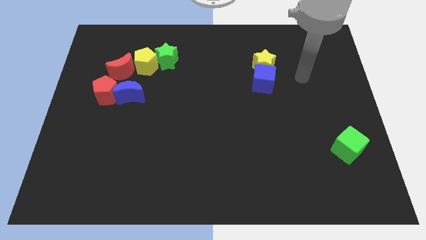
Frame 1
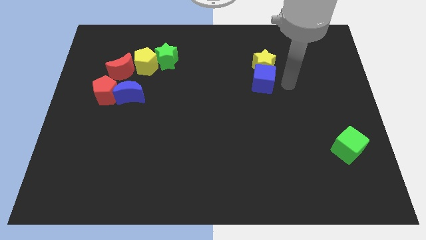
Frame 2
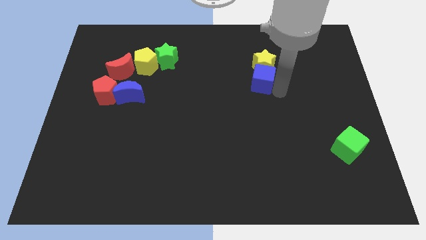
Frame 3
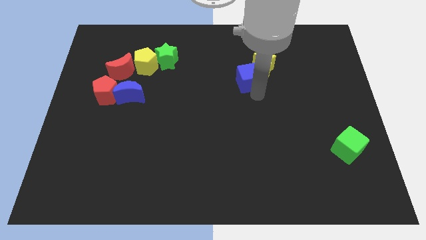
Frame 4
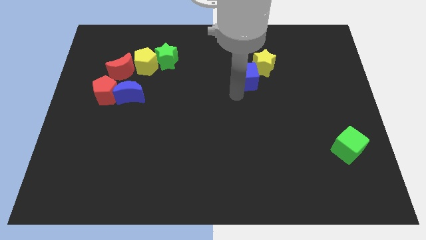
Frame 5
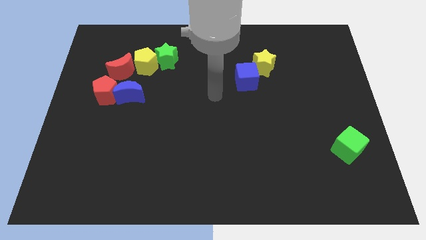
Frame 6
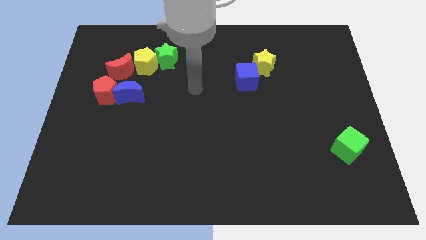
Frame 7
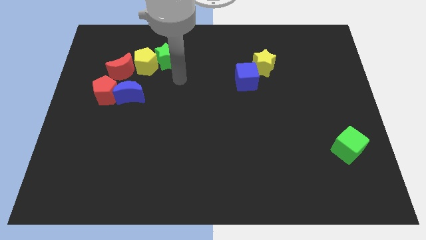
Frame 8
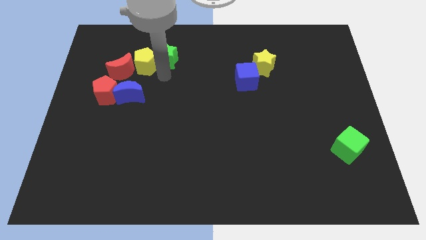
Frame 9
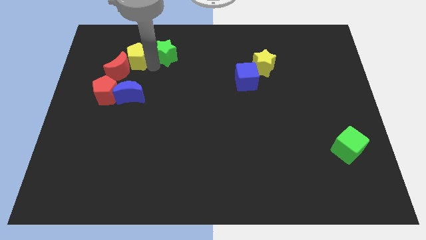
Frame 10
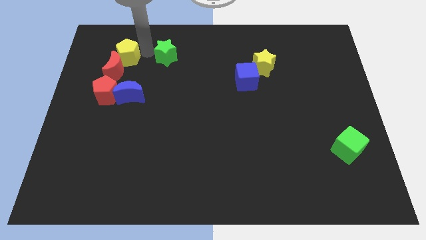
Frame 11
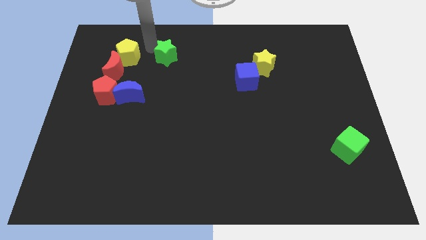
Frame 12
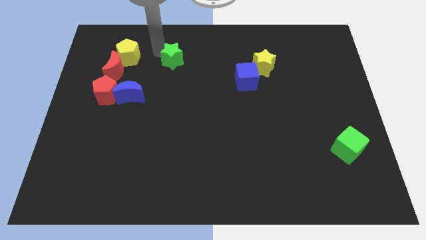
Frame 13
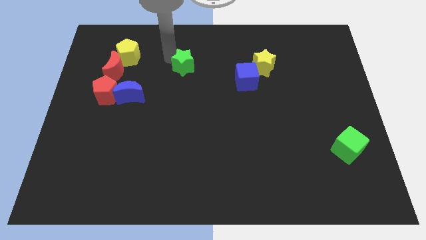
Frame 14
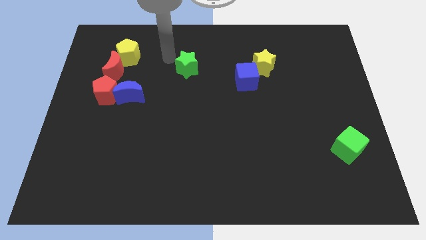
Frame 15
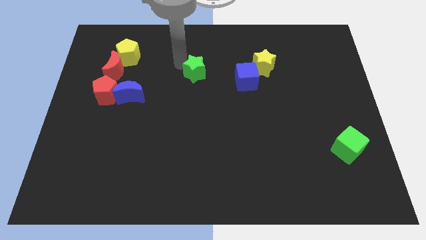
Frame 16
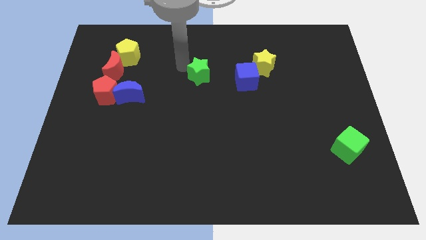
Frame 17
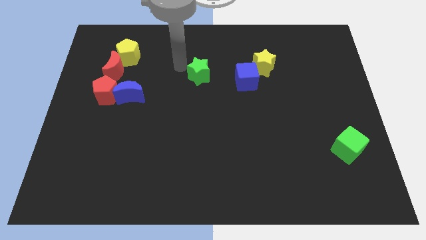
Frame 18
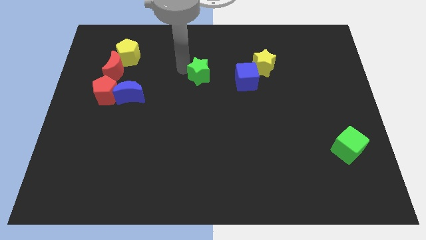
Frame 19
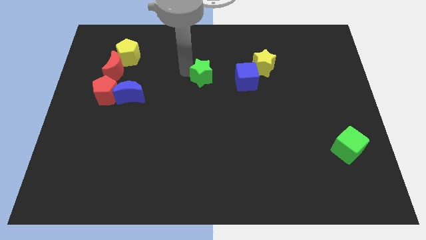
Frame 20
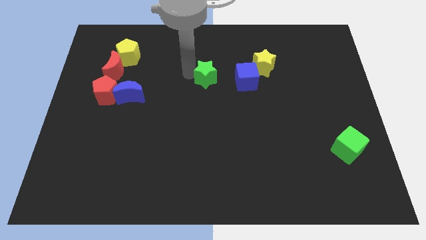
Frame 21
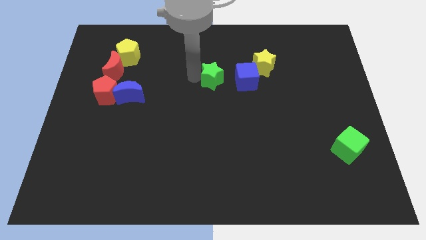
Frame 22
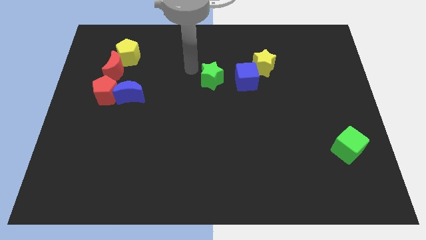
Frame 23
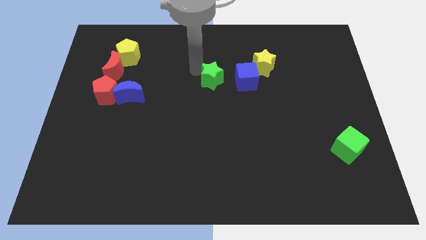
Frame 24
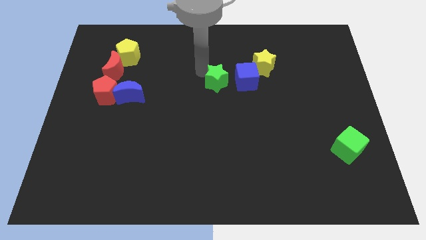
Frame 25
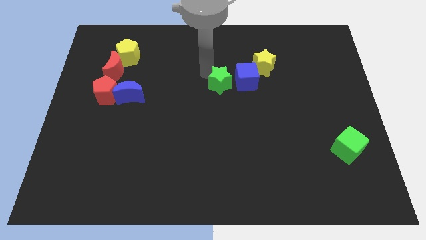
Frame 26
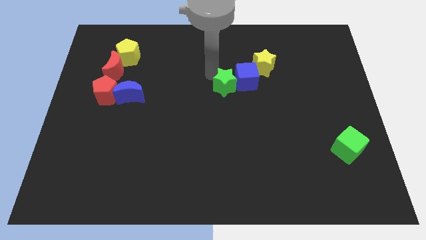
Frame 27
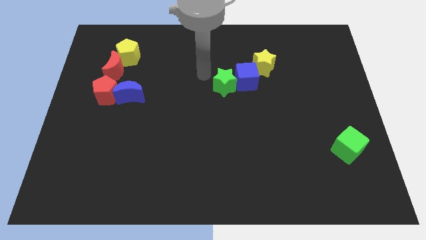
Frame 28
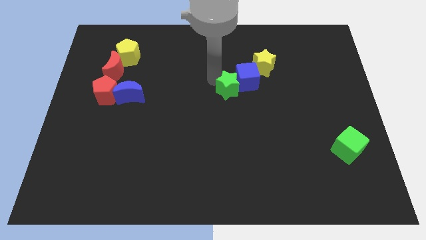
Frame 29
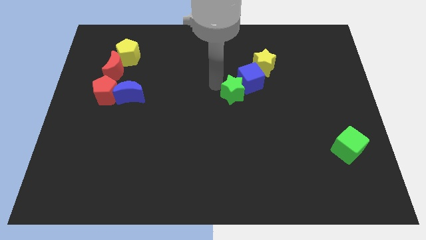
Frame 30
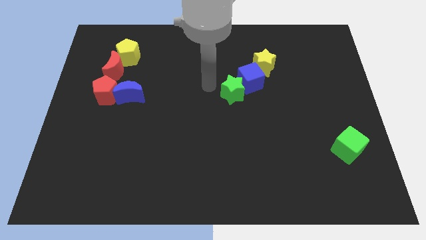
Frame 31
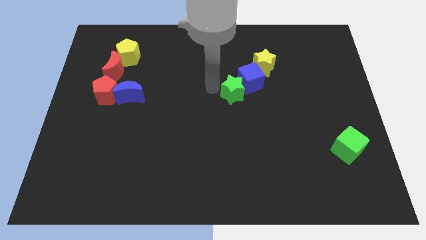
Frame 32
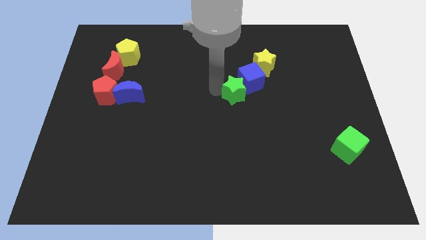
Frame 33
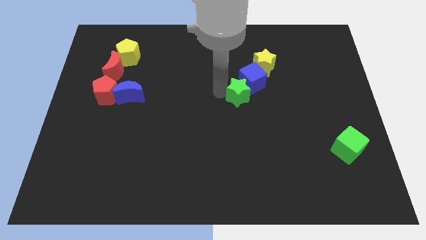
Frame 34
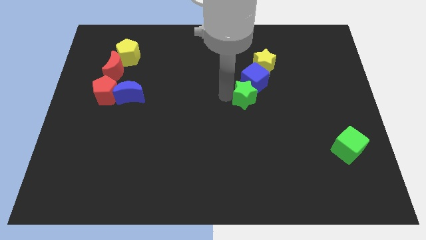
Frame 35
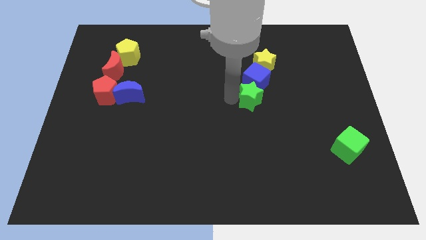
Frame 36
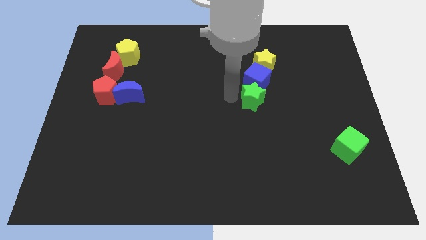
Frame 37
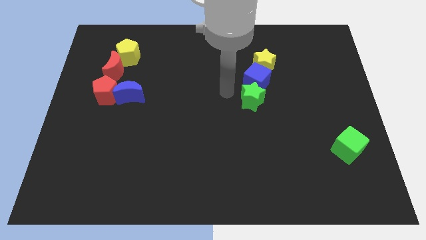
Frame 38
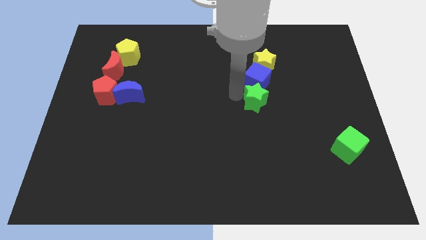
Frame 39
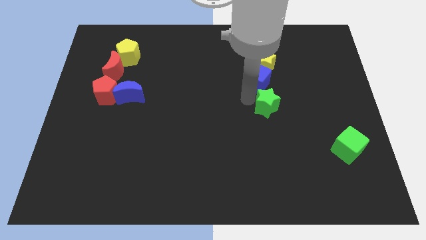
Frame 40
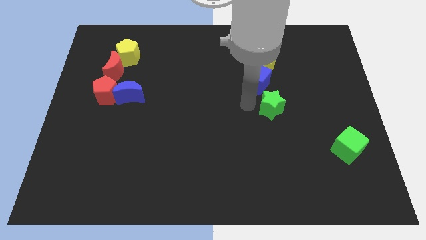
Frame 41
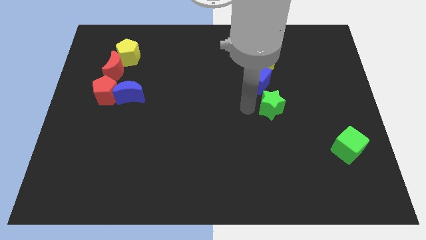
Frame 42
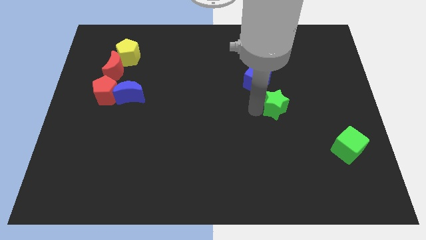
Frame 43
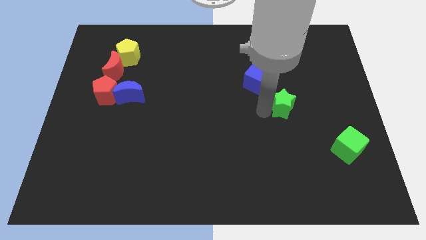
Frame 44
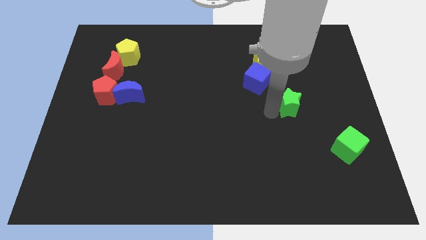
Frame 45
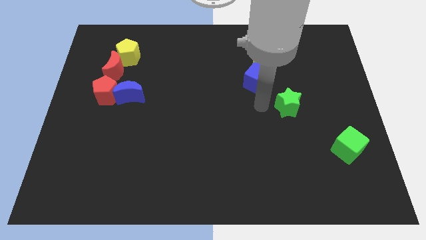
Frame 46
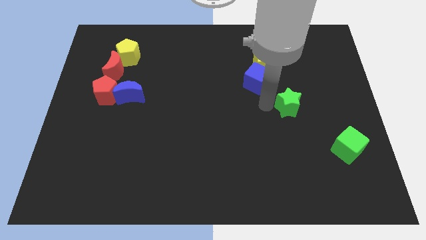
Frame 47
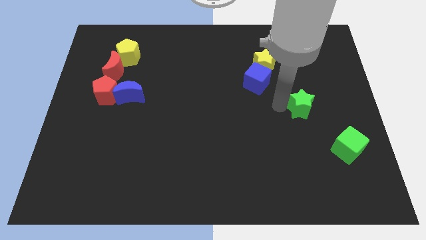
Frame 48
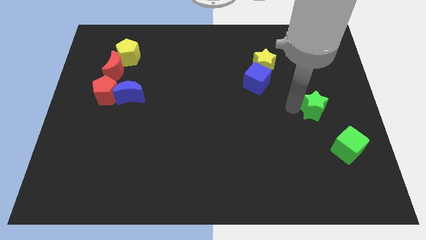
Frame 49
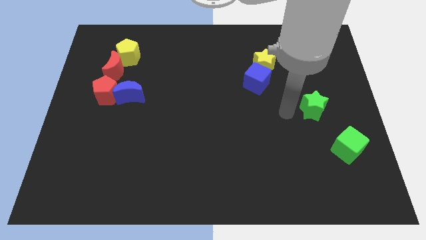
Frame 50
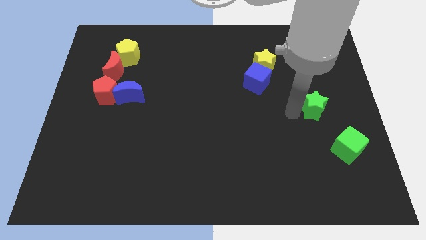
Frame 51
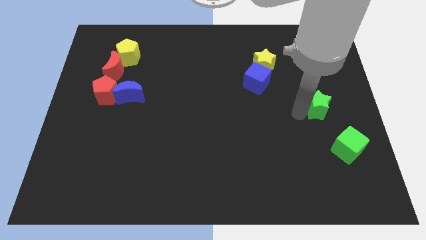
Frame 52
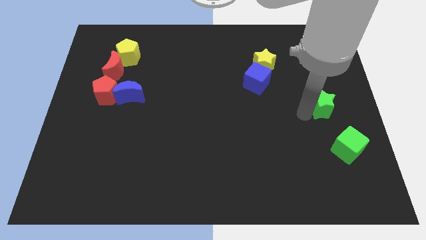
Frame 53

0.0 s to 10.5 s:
put the green star to the right side

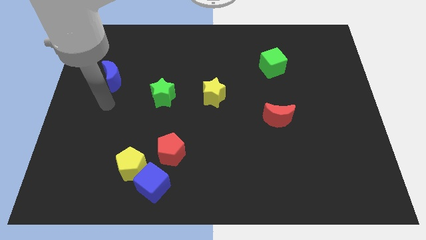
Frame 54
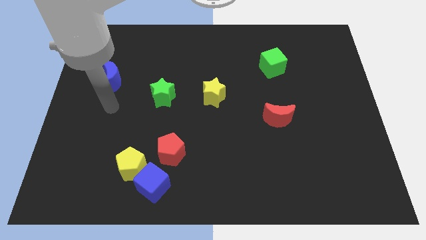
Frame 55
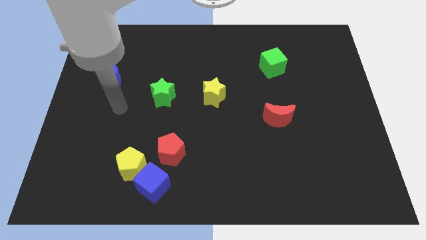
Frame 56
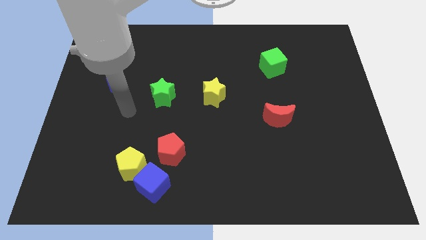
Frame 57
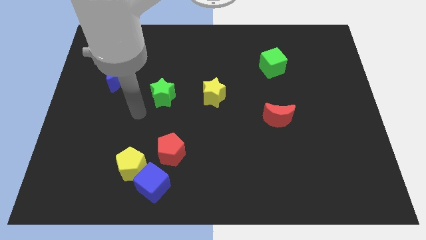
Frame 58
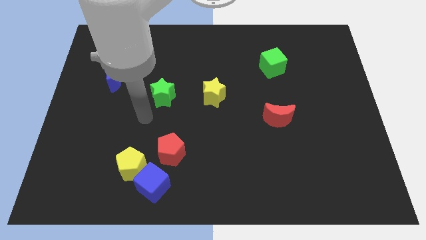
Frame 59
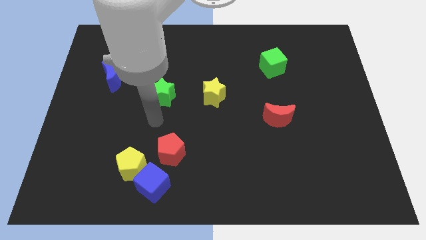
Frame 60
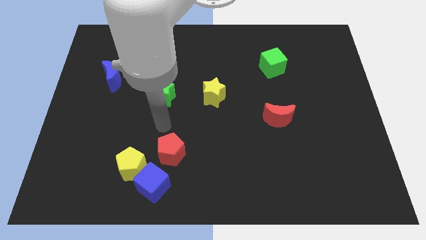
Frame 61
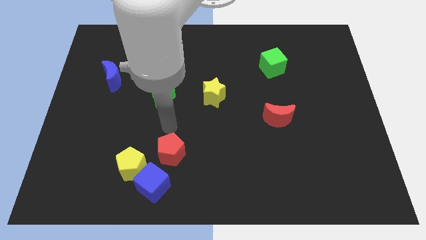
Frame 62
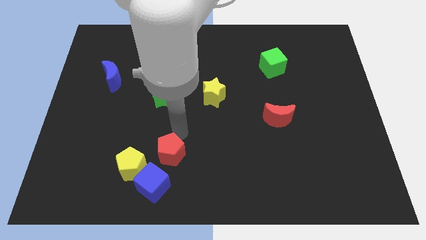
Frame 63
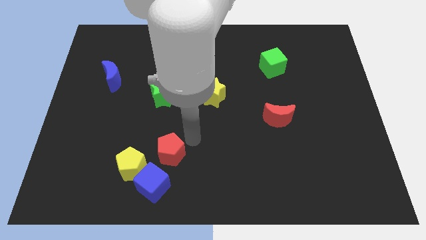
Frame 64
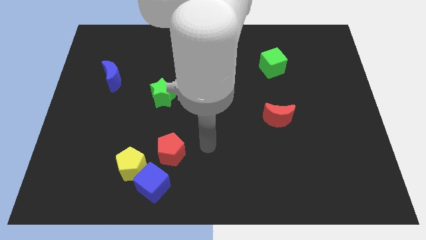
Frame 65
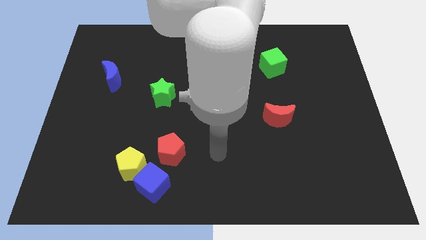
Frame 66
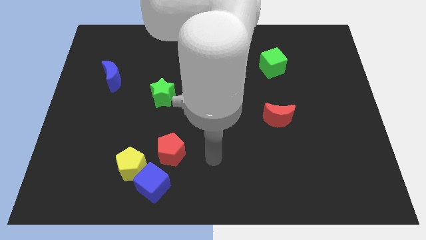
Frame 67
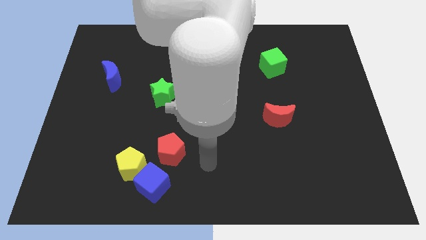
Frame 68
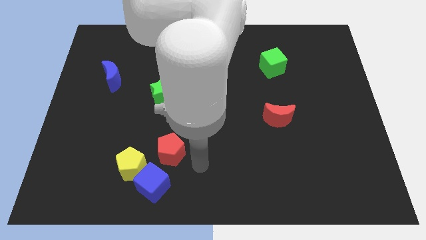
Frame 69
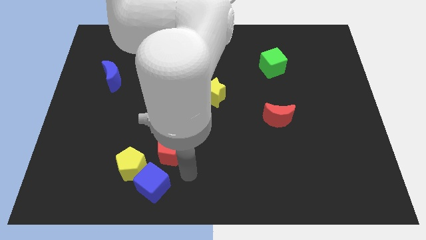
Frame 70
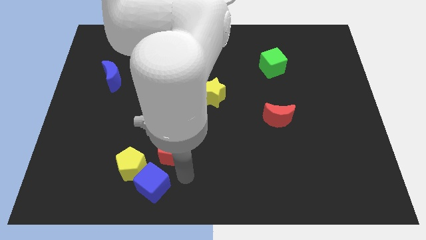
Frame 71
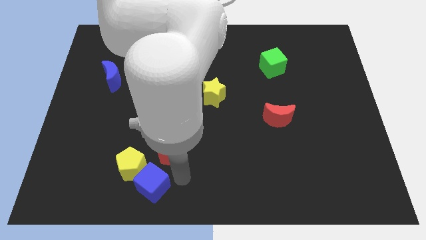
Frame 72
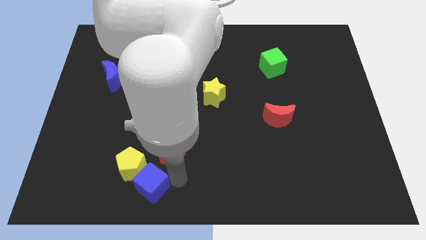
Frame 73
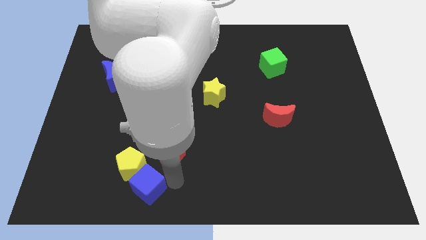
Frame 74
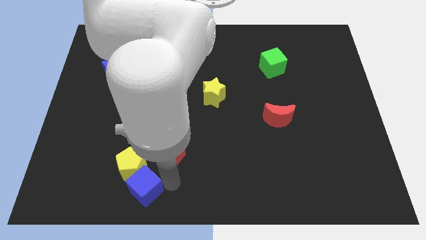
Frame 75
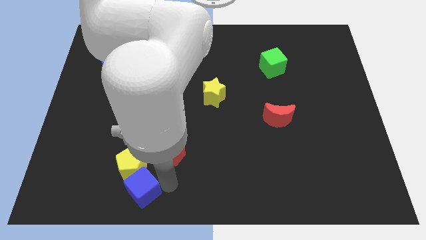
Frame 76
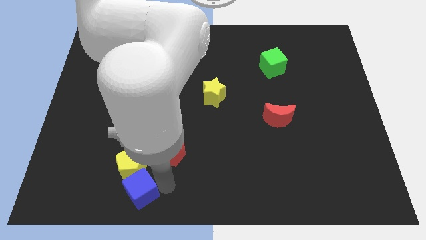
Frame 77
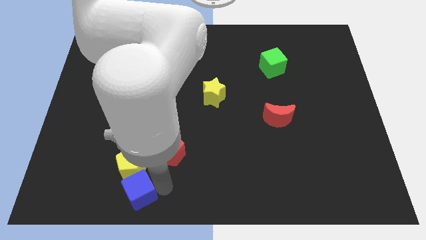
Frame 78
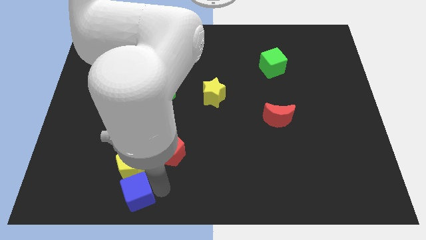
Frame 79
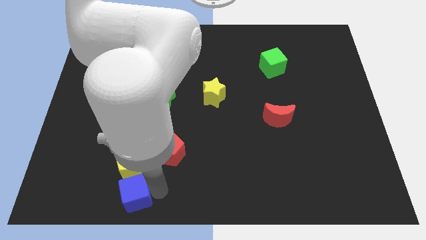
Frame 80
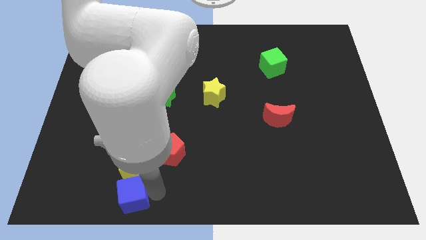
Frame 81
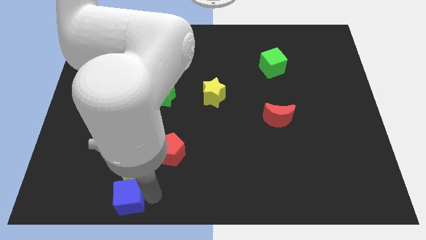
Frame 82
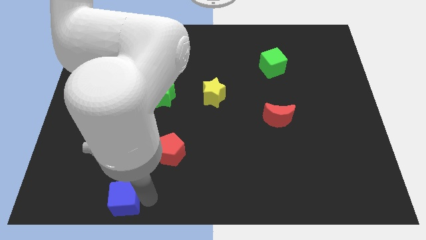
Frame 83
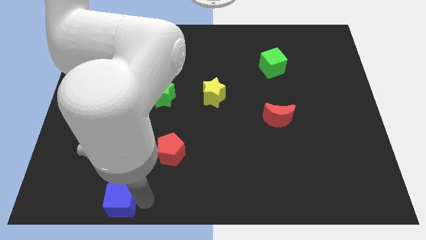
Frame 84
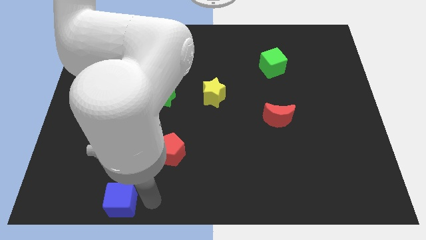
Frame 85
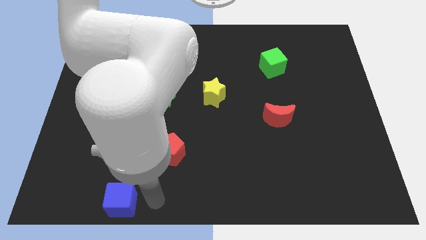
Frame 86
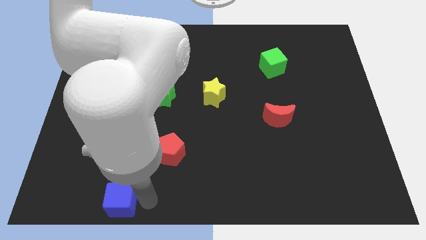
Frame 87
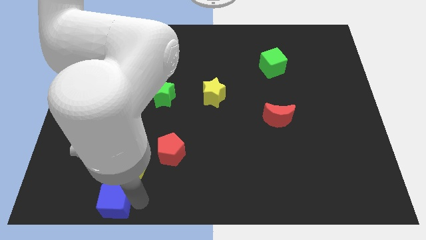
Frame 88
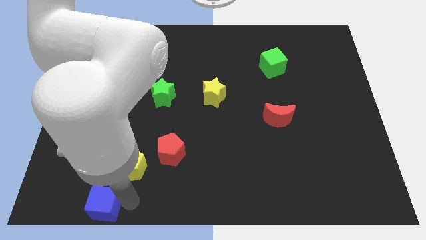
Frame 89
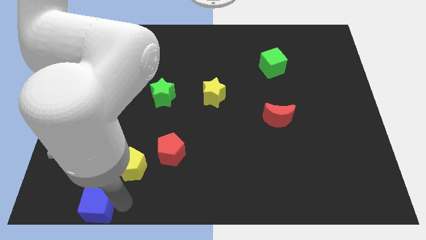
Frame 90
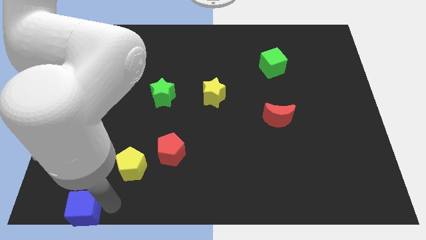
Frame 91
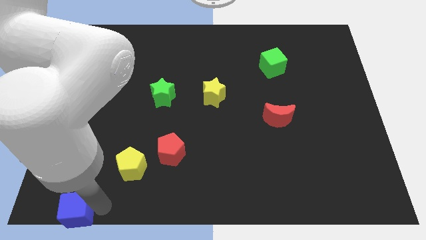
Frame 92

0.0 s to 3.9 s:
push the blue cube to the bottom left
